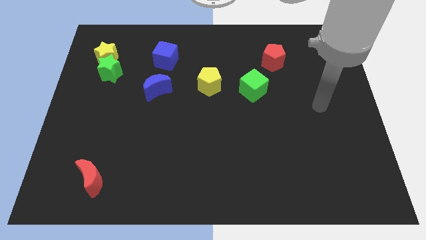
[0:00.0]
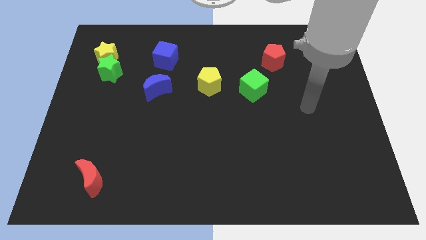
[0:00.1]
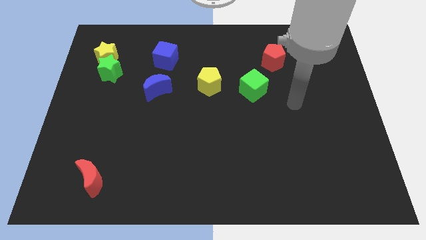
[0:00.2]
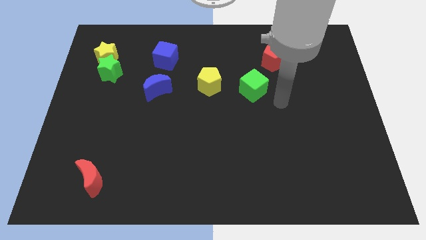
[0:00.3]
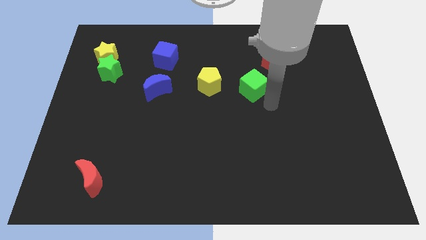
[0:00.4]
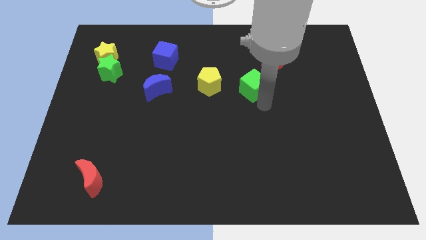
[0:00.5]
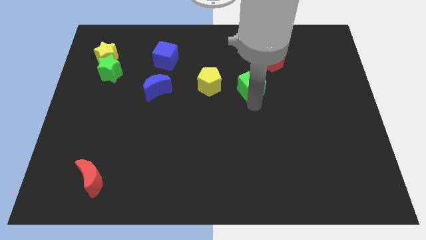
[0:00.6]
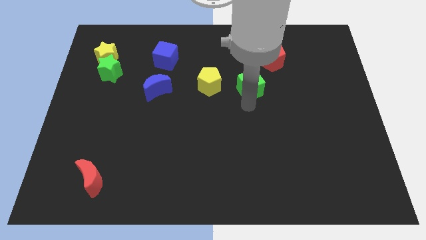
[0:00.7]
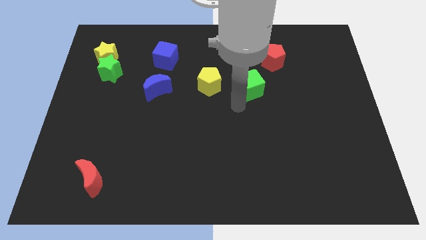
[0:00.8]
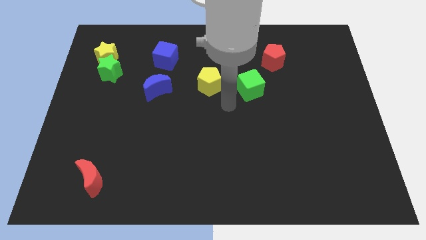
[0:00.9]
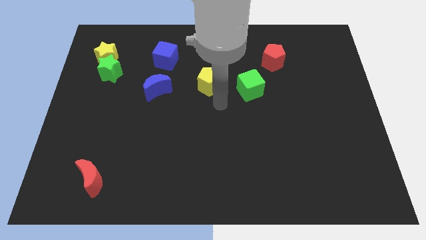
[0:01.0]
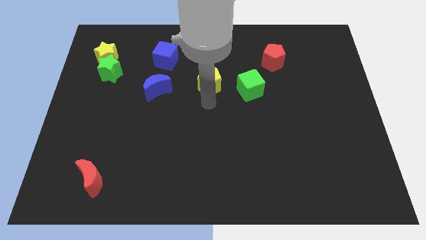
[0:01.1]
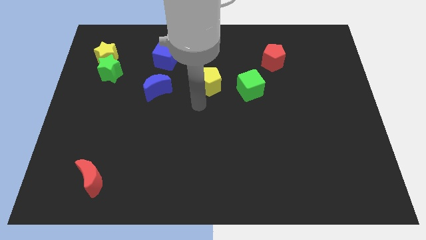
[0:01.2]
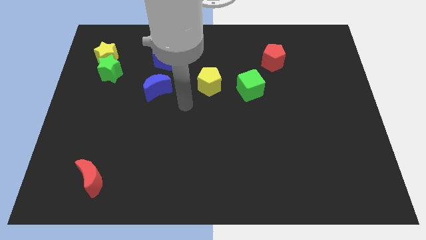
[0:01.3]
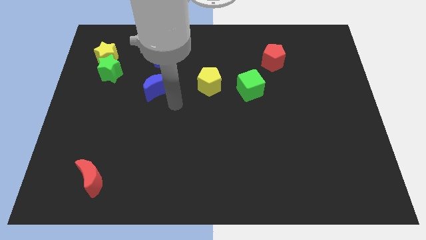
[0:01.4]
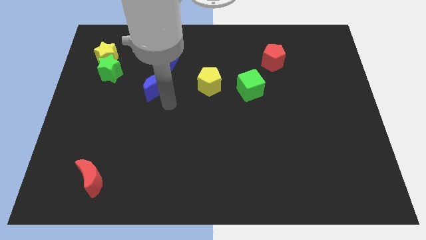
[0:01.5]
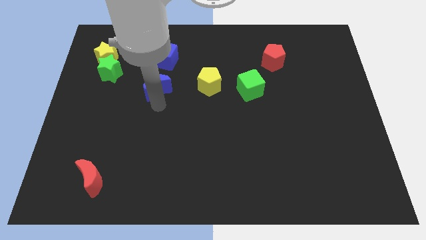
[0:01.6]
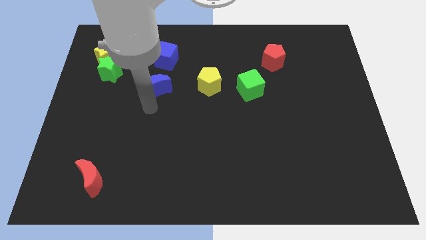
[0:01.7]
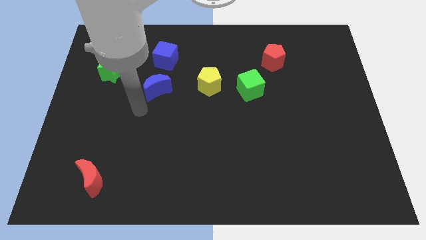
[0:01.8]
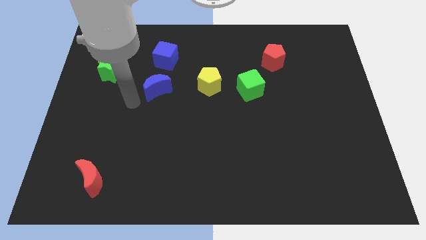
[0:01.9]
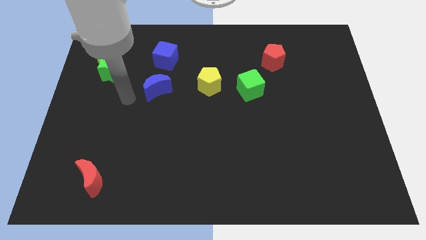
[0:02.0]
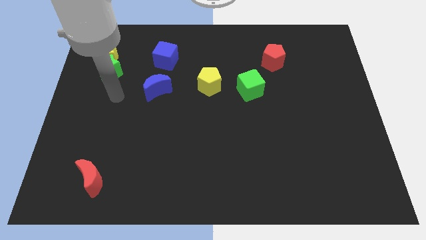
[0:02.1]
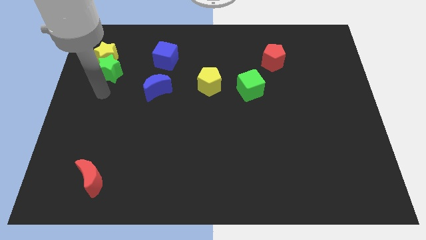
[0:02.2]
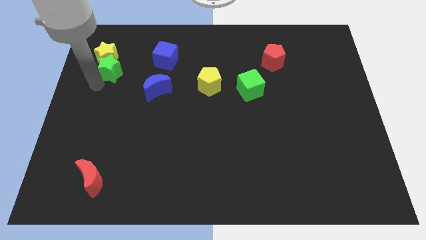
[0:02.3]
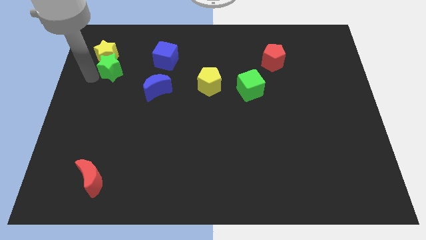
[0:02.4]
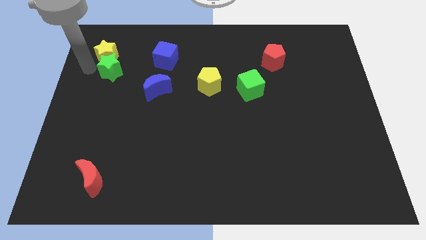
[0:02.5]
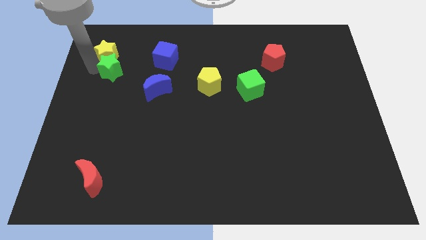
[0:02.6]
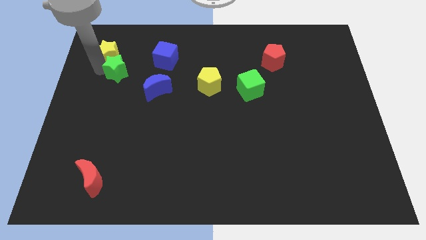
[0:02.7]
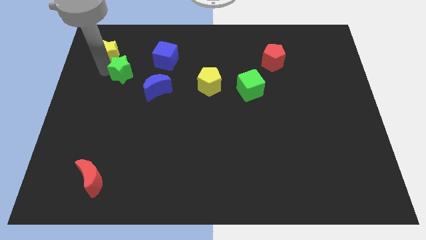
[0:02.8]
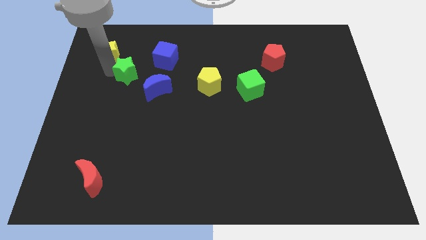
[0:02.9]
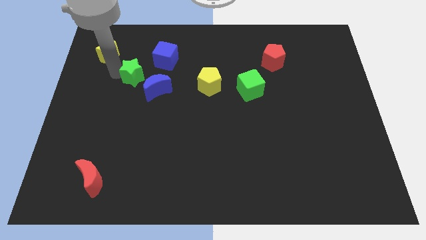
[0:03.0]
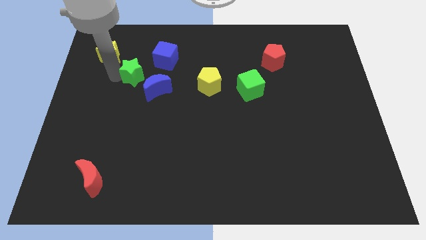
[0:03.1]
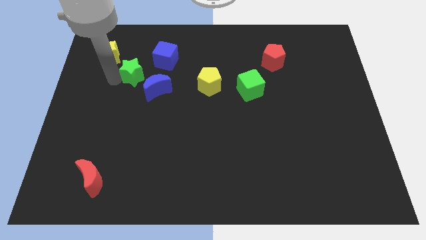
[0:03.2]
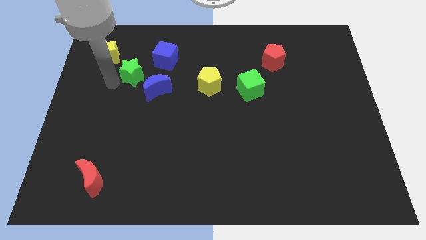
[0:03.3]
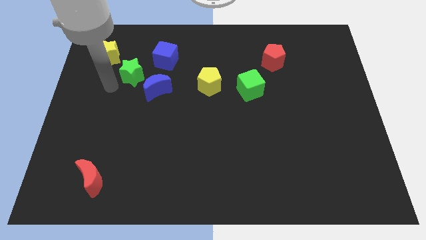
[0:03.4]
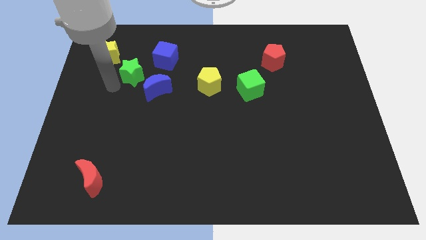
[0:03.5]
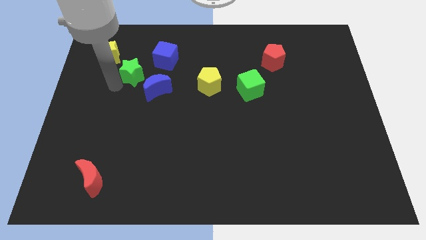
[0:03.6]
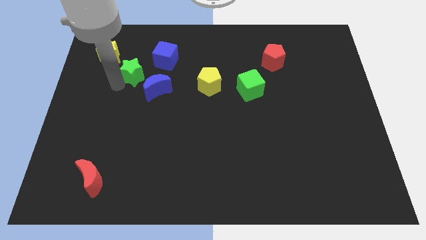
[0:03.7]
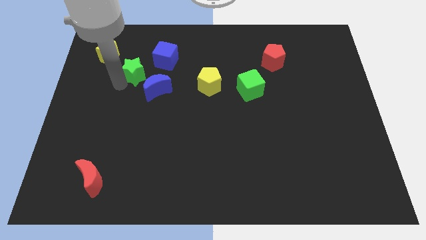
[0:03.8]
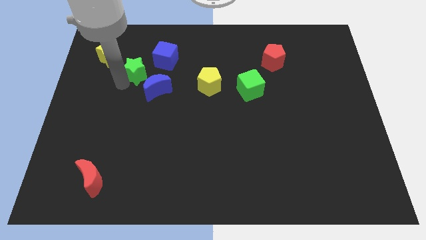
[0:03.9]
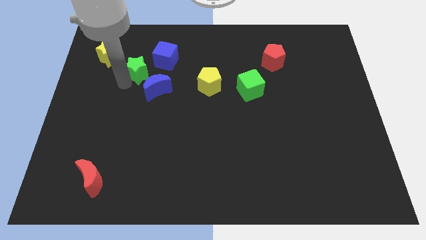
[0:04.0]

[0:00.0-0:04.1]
push the green star slightly right

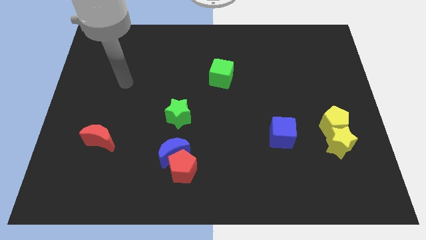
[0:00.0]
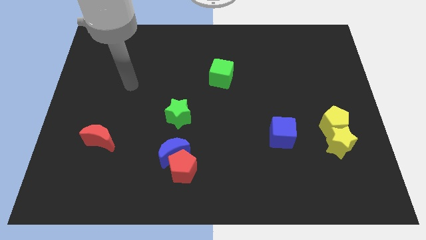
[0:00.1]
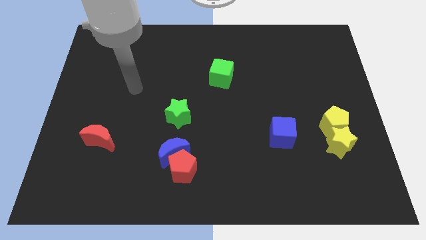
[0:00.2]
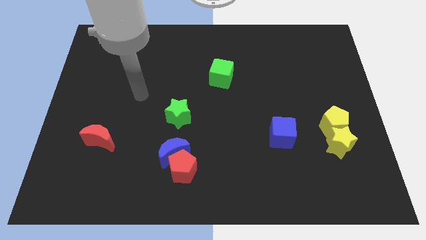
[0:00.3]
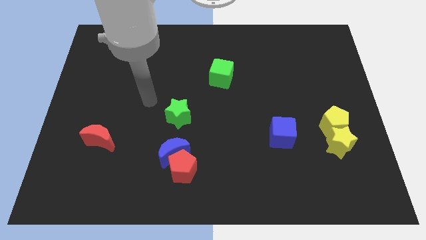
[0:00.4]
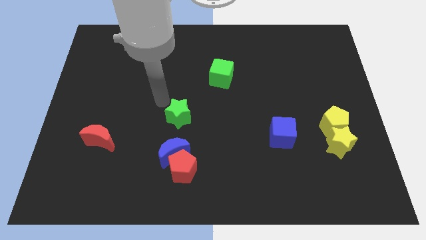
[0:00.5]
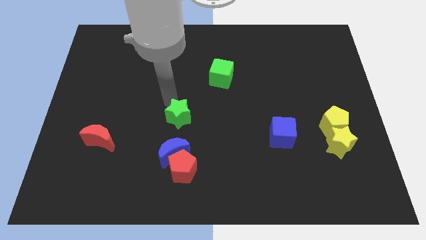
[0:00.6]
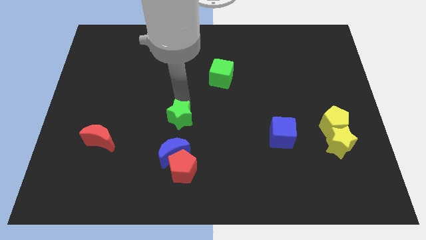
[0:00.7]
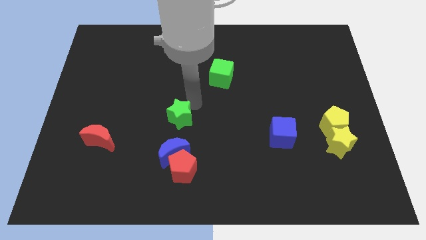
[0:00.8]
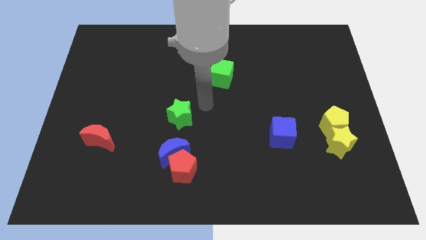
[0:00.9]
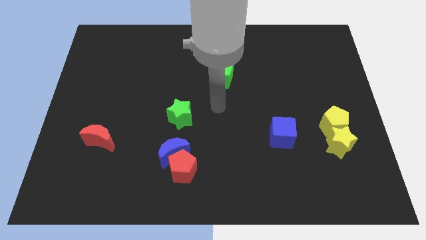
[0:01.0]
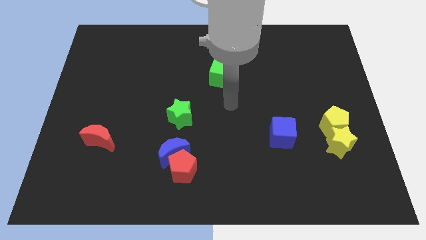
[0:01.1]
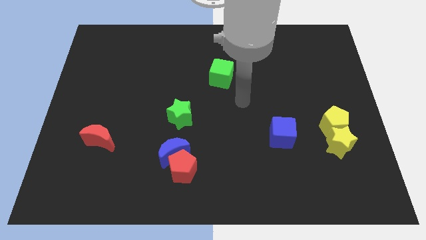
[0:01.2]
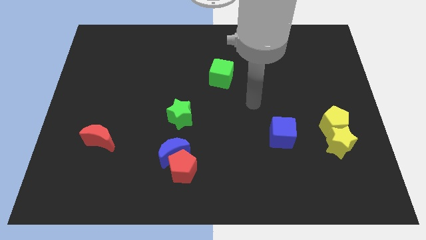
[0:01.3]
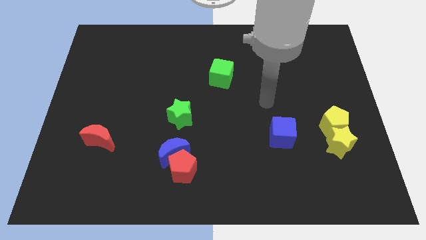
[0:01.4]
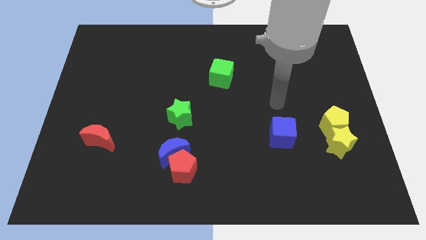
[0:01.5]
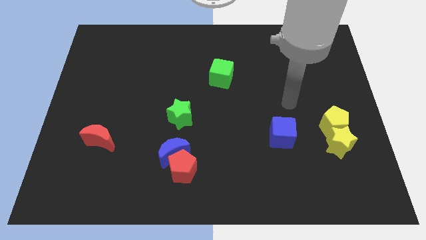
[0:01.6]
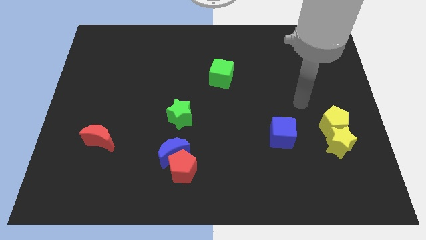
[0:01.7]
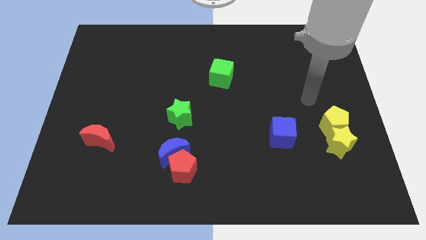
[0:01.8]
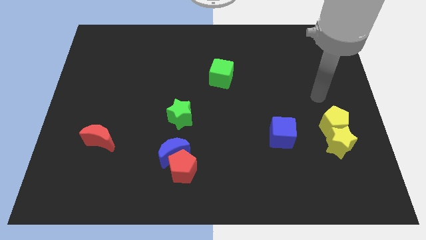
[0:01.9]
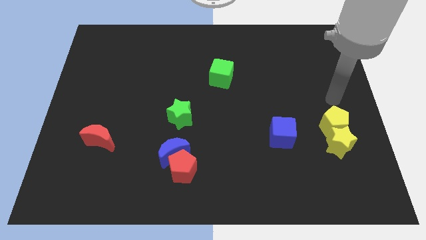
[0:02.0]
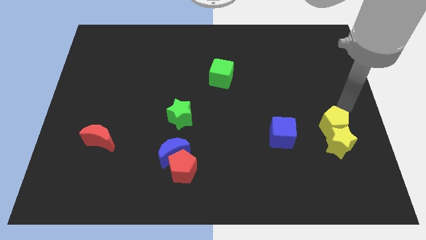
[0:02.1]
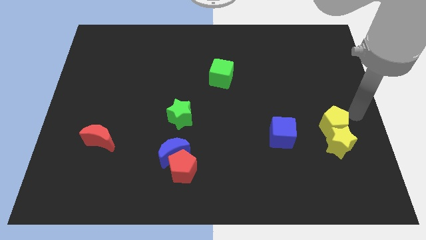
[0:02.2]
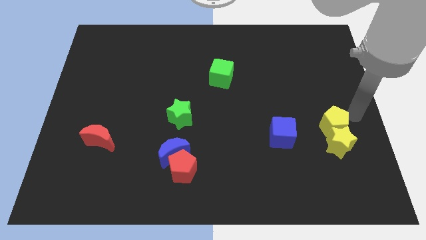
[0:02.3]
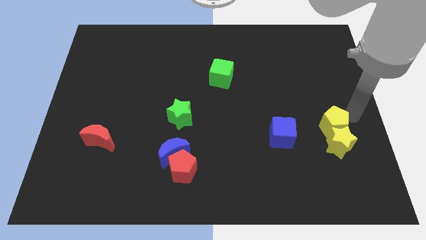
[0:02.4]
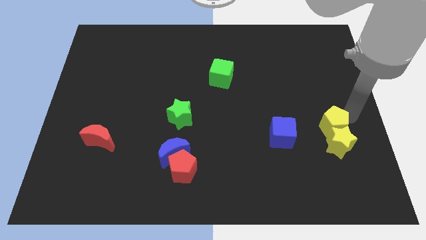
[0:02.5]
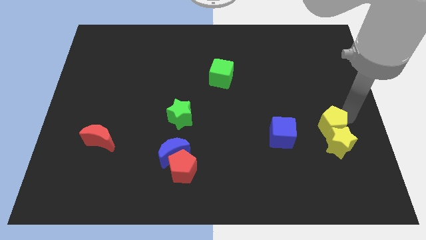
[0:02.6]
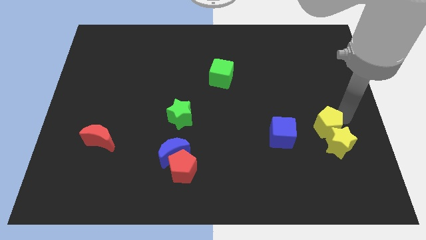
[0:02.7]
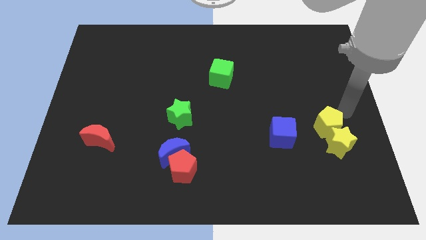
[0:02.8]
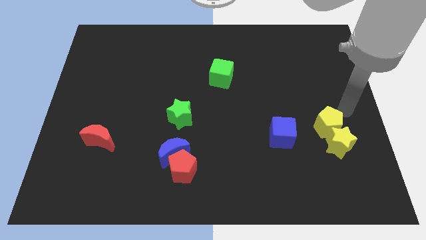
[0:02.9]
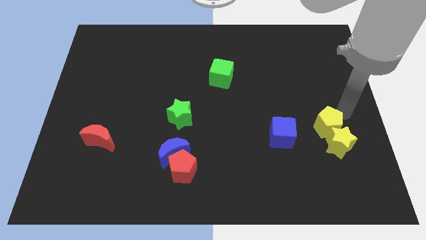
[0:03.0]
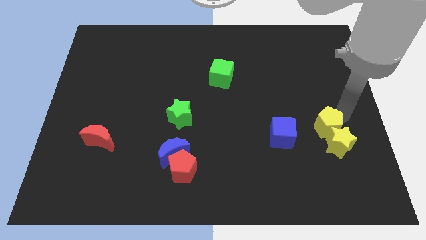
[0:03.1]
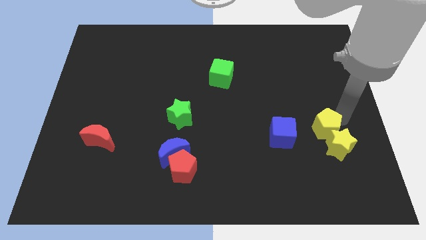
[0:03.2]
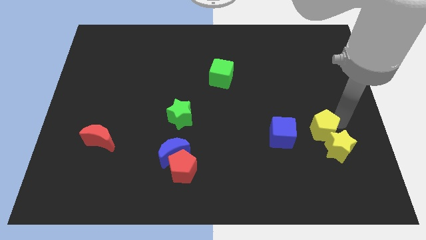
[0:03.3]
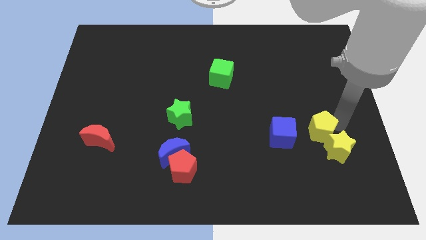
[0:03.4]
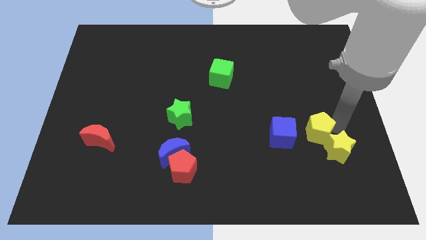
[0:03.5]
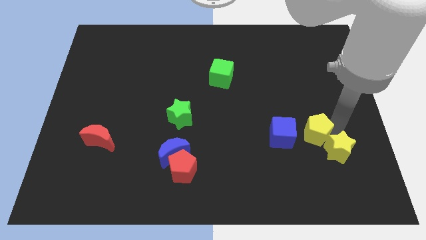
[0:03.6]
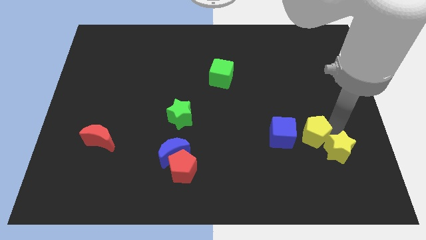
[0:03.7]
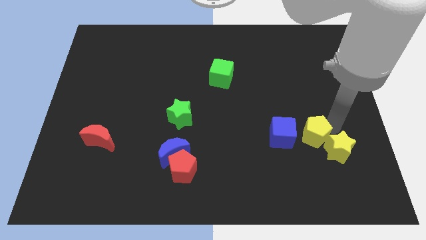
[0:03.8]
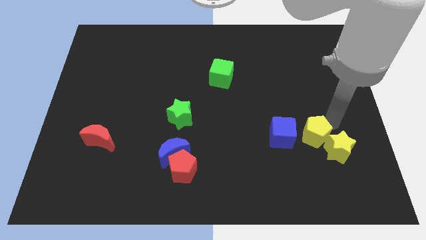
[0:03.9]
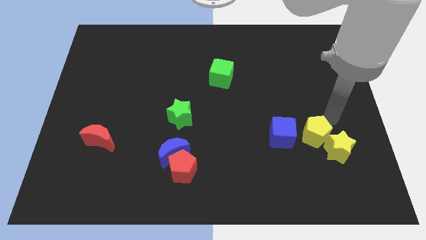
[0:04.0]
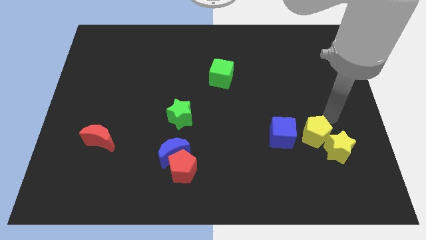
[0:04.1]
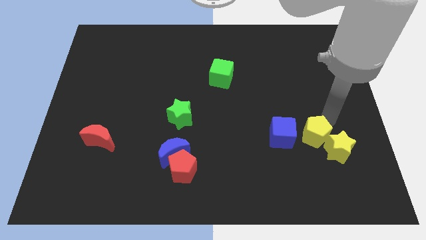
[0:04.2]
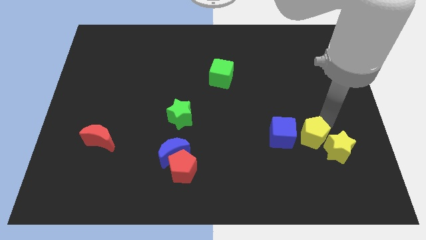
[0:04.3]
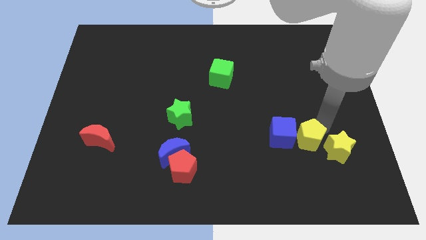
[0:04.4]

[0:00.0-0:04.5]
move the yellow pentagon a bit down and then left
